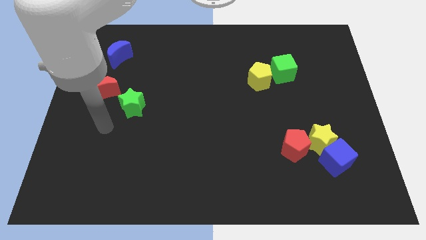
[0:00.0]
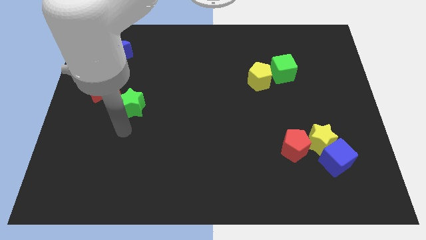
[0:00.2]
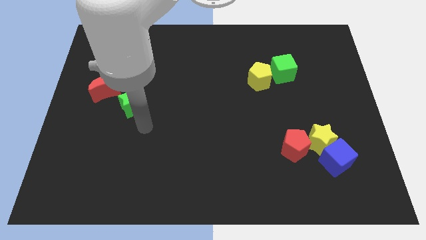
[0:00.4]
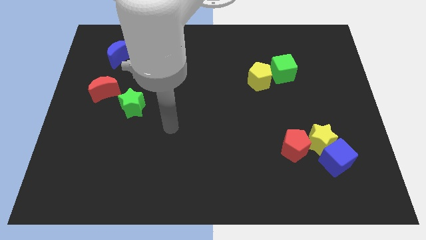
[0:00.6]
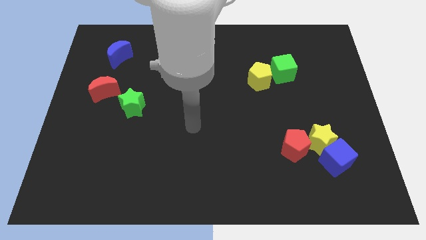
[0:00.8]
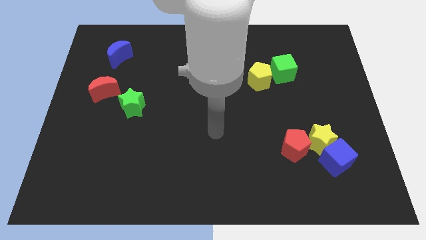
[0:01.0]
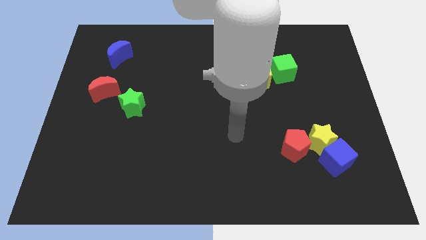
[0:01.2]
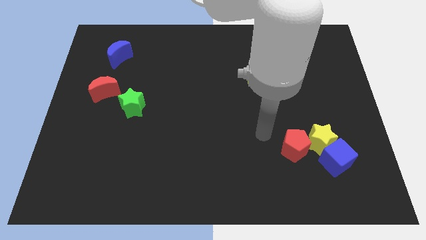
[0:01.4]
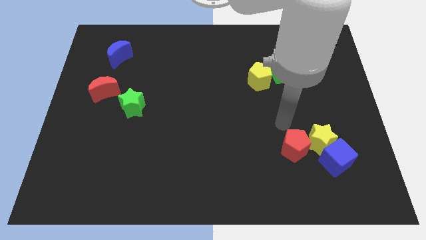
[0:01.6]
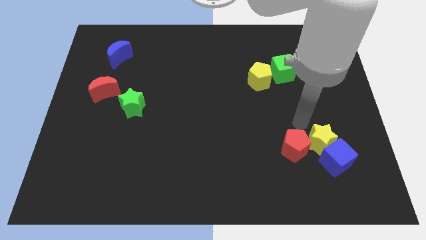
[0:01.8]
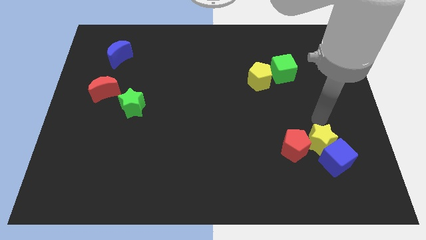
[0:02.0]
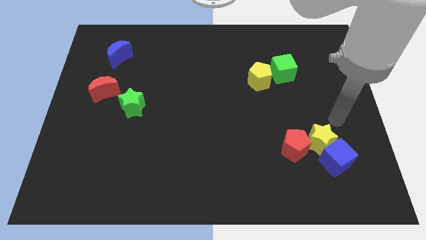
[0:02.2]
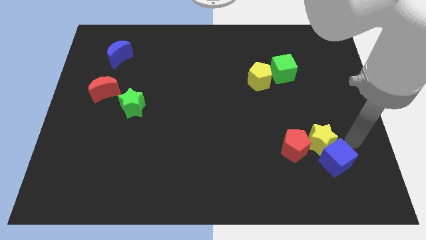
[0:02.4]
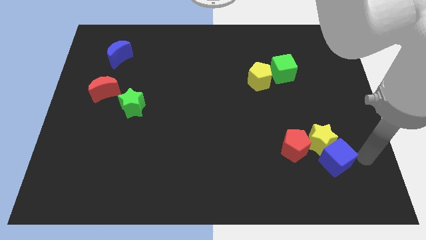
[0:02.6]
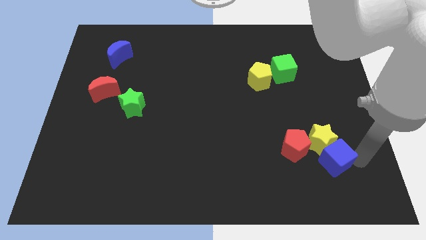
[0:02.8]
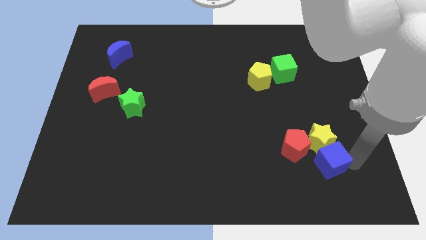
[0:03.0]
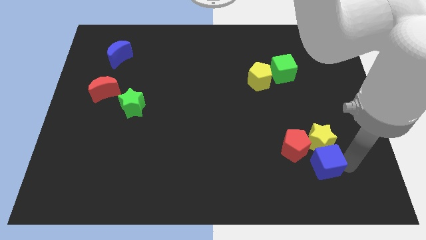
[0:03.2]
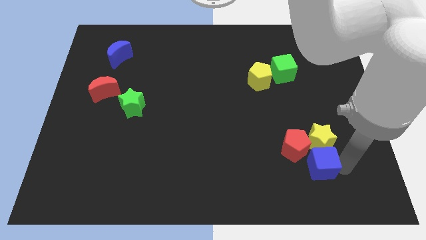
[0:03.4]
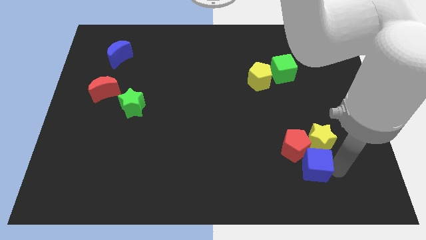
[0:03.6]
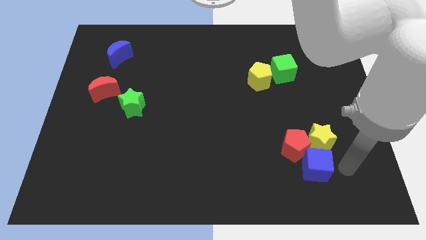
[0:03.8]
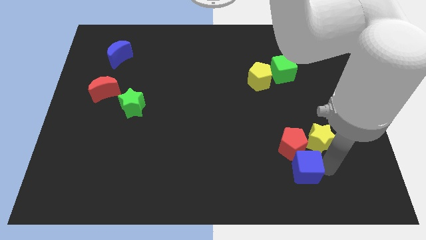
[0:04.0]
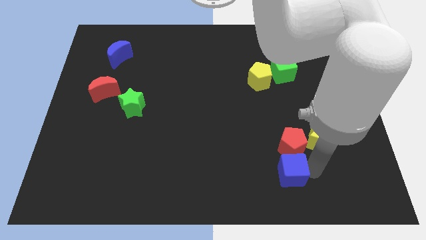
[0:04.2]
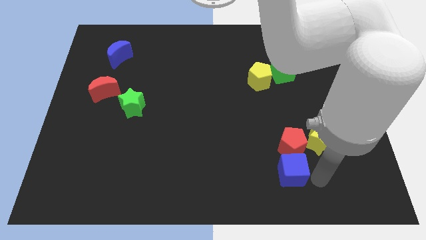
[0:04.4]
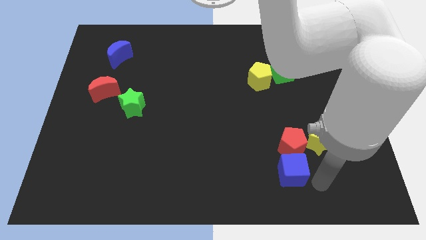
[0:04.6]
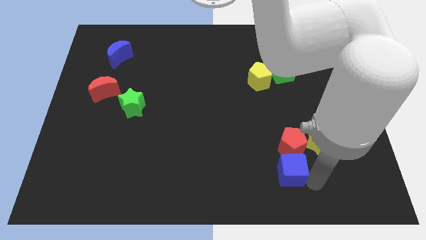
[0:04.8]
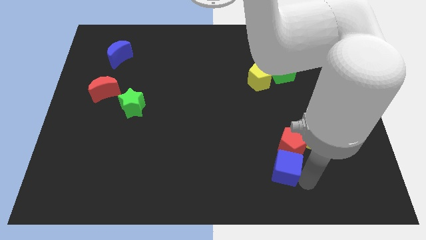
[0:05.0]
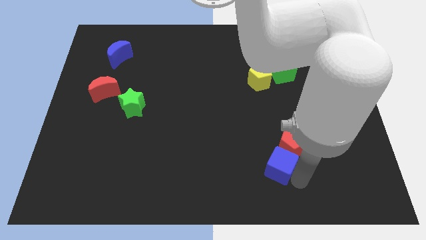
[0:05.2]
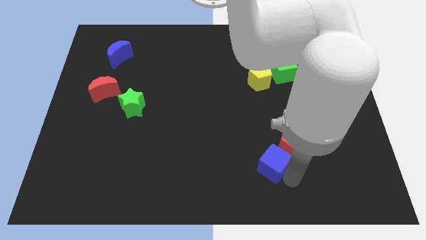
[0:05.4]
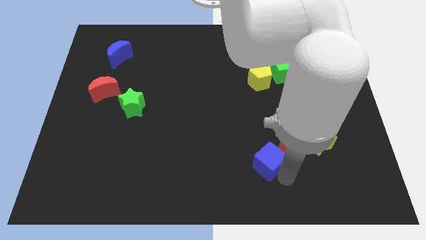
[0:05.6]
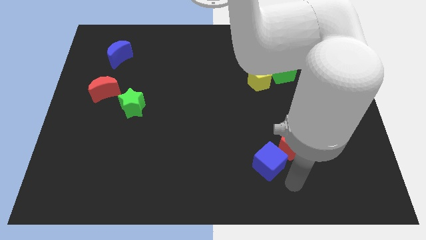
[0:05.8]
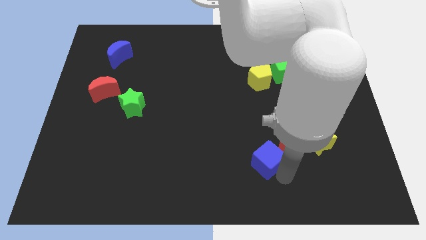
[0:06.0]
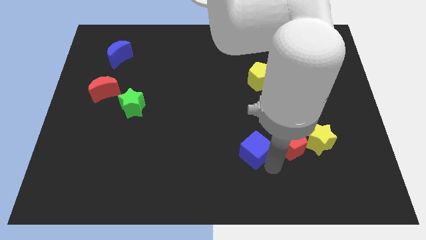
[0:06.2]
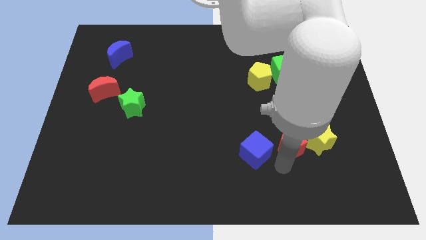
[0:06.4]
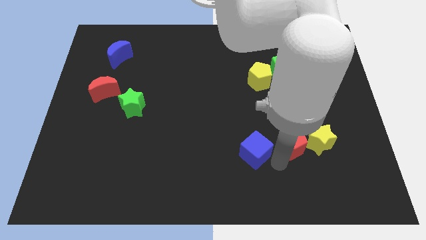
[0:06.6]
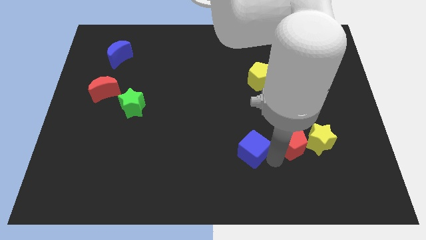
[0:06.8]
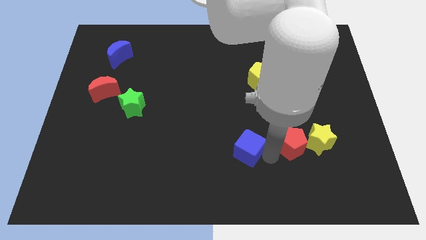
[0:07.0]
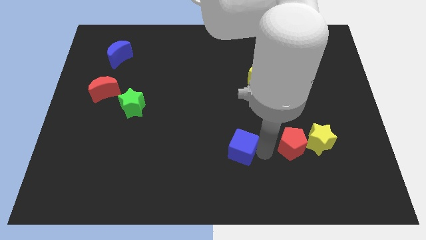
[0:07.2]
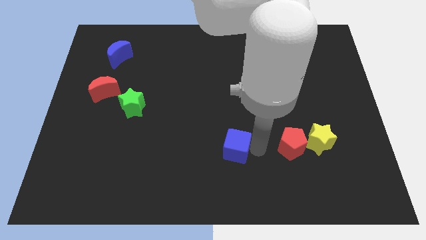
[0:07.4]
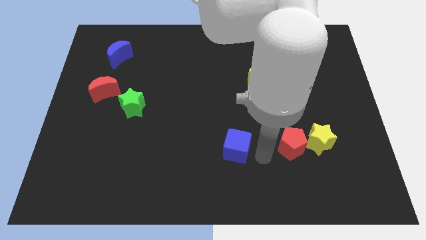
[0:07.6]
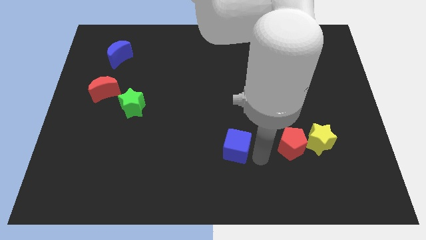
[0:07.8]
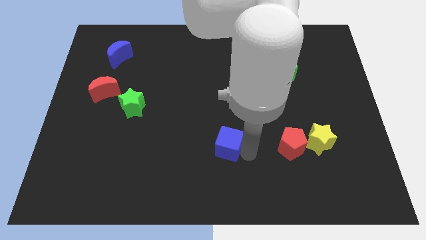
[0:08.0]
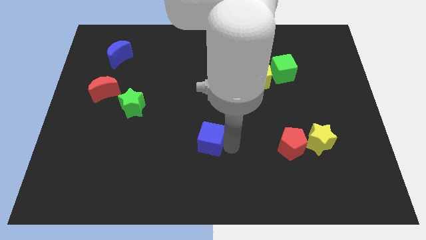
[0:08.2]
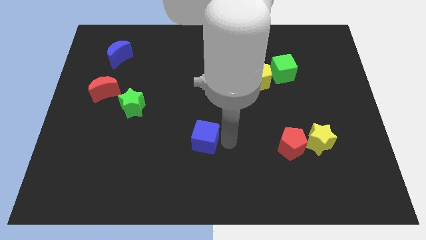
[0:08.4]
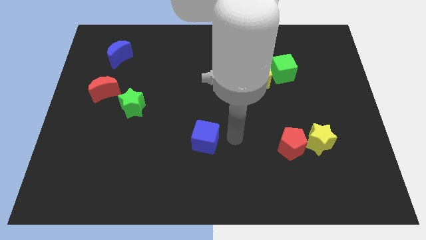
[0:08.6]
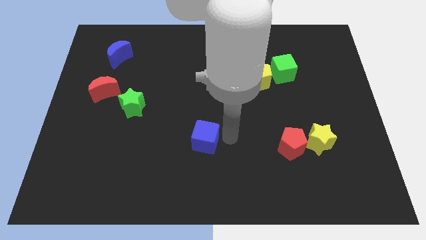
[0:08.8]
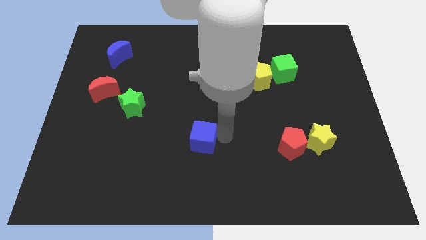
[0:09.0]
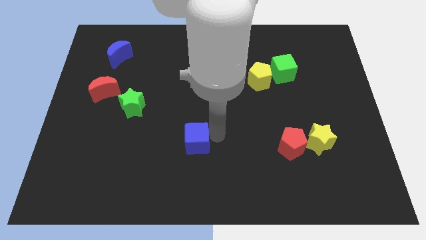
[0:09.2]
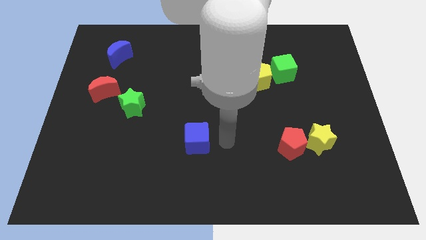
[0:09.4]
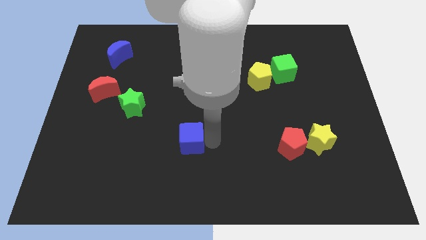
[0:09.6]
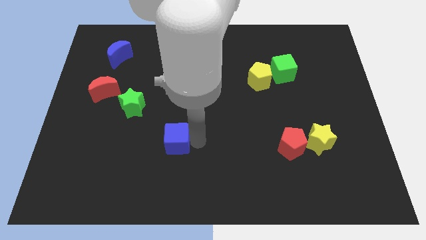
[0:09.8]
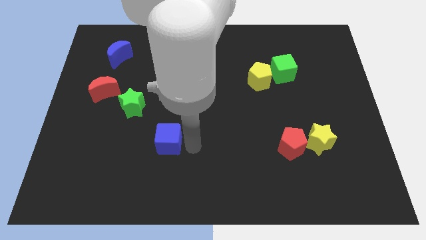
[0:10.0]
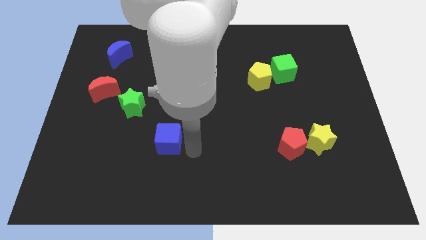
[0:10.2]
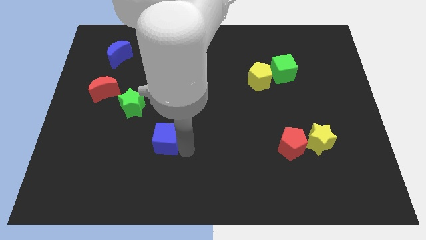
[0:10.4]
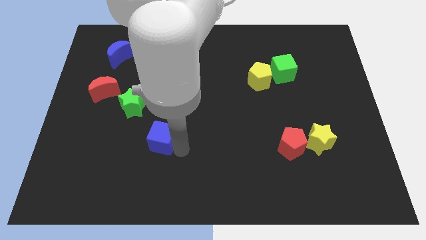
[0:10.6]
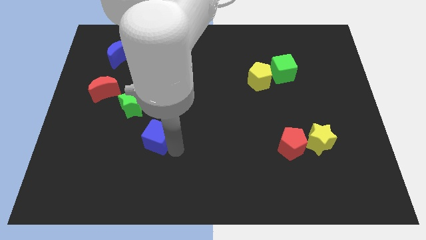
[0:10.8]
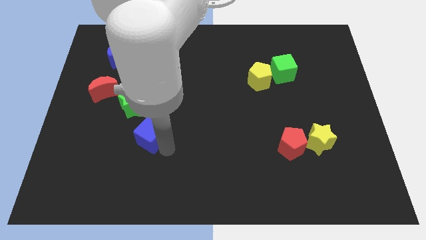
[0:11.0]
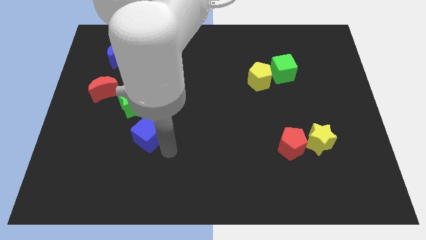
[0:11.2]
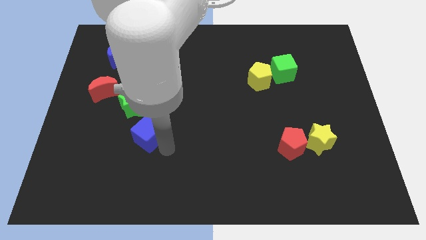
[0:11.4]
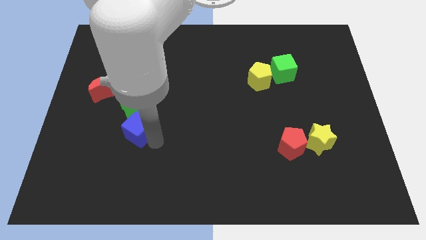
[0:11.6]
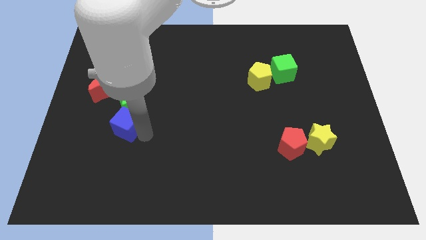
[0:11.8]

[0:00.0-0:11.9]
push the blue cube diagonally down and to the left of the green star

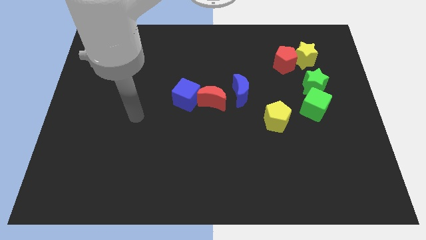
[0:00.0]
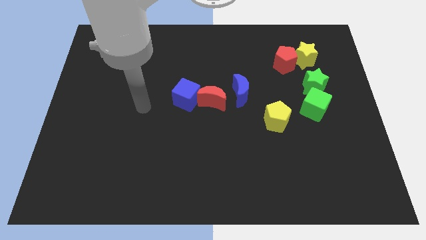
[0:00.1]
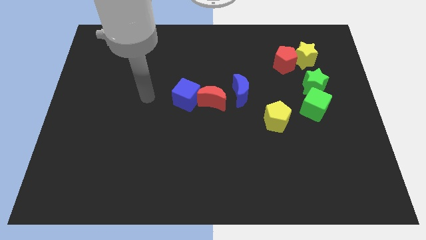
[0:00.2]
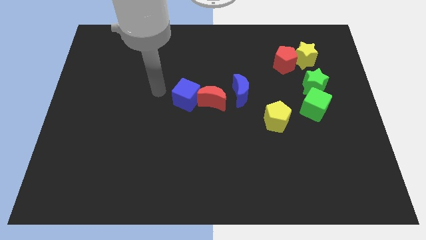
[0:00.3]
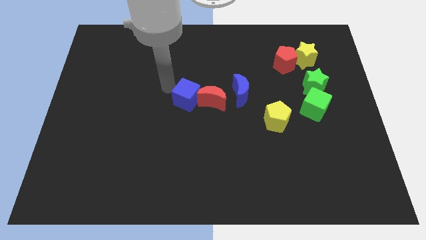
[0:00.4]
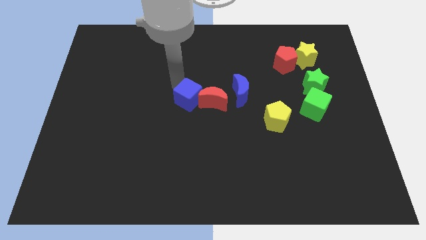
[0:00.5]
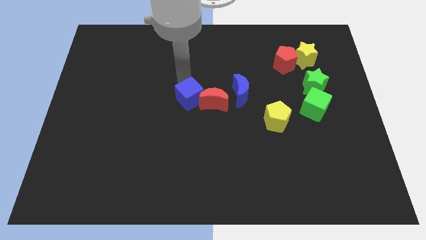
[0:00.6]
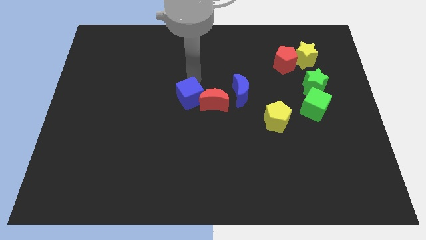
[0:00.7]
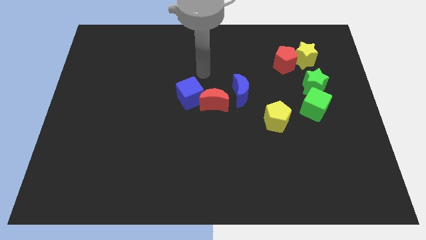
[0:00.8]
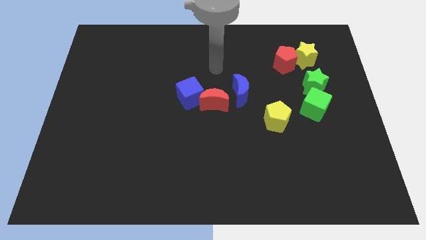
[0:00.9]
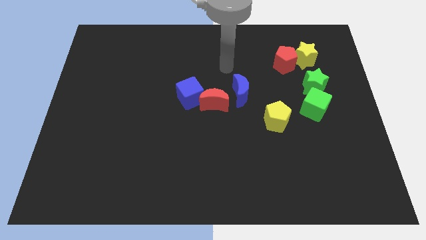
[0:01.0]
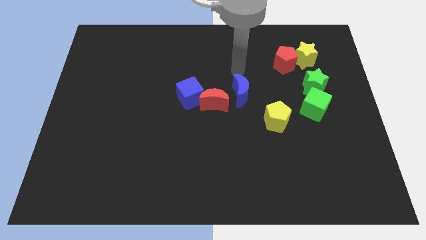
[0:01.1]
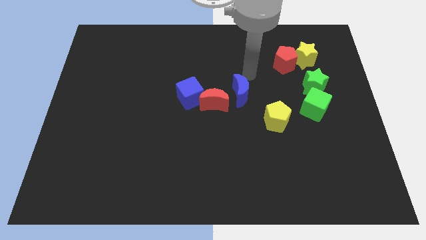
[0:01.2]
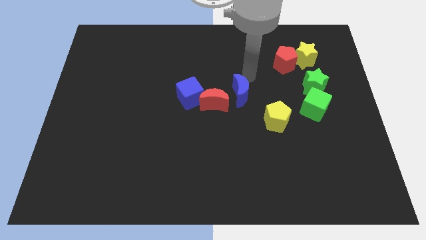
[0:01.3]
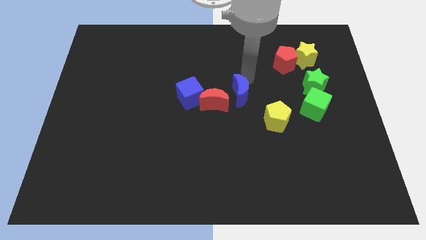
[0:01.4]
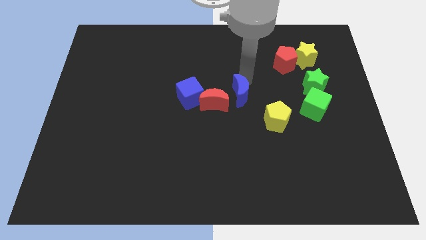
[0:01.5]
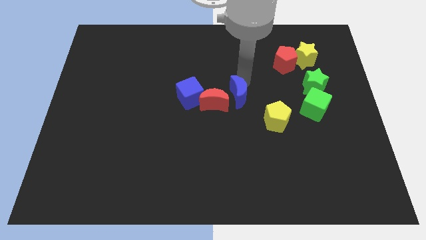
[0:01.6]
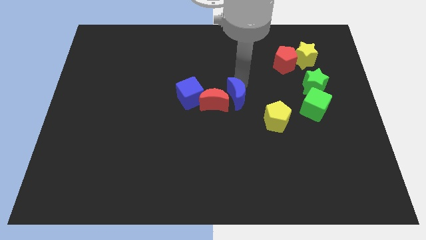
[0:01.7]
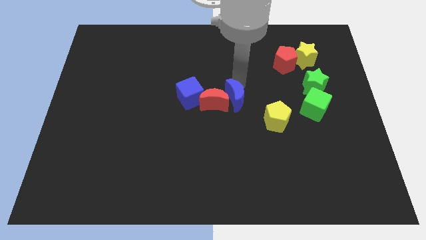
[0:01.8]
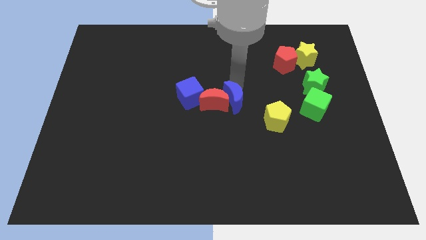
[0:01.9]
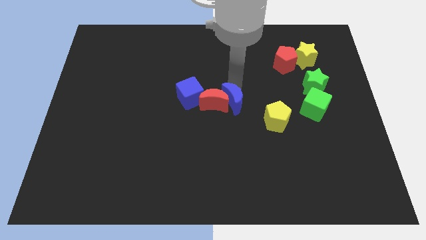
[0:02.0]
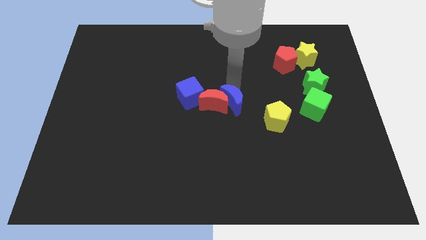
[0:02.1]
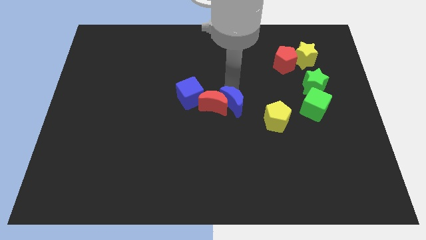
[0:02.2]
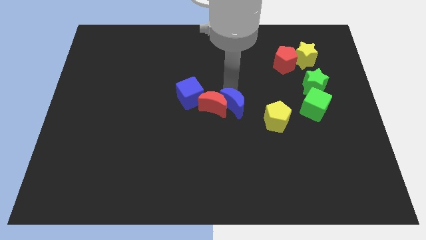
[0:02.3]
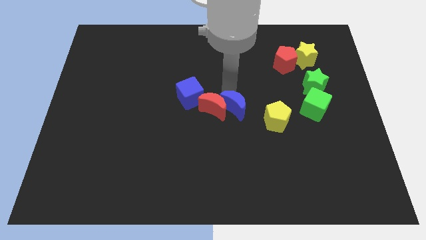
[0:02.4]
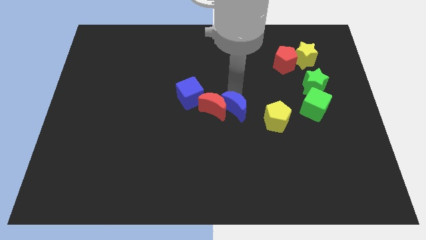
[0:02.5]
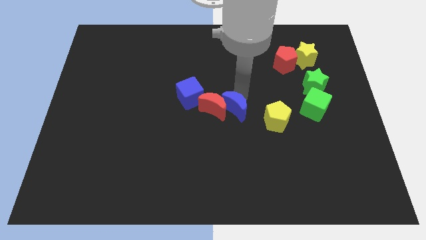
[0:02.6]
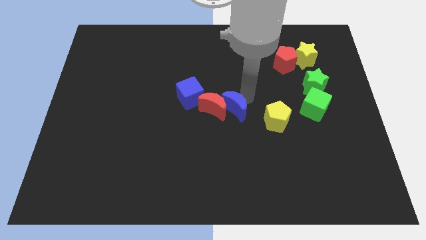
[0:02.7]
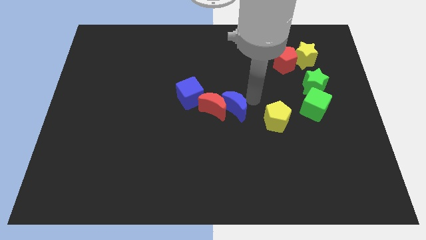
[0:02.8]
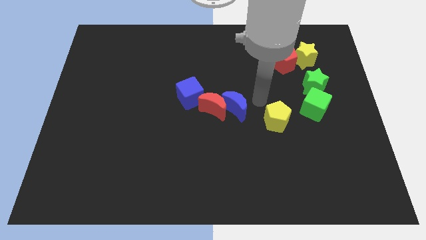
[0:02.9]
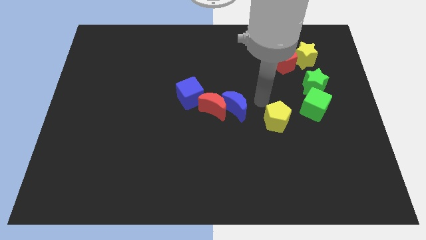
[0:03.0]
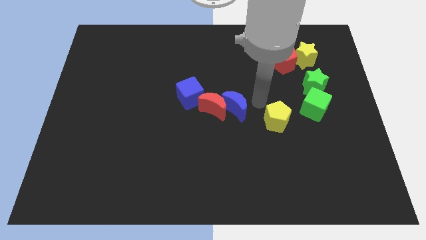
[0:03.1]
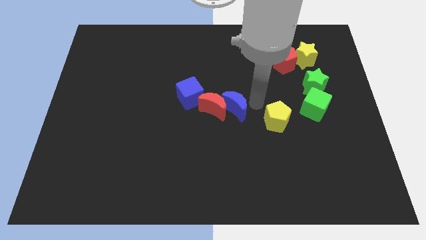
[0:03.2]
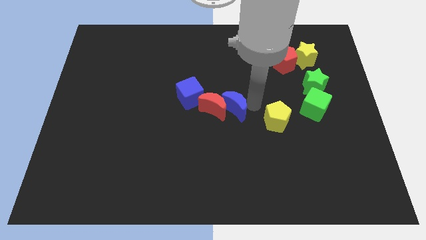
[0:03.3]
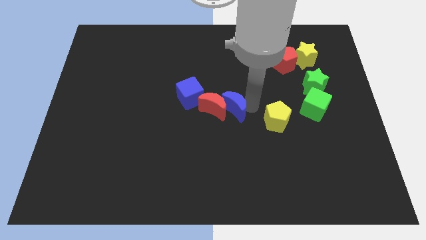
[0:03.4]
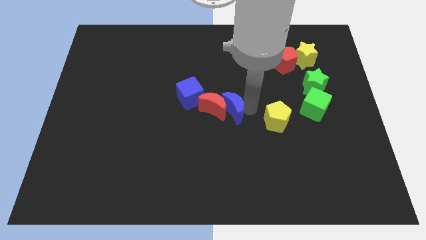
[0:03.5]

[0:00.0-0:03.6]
slide the blue moon diagonally down and to the right of the blue cube
